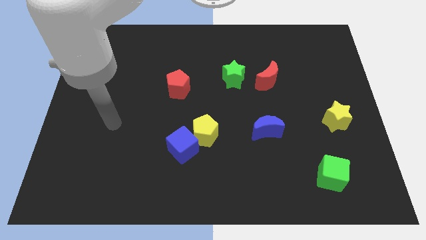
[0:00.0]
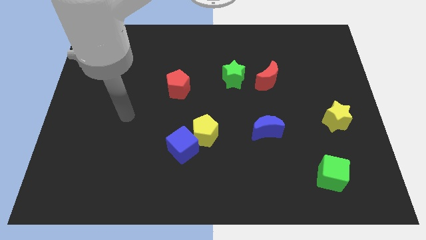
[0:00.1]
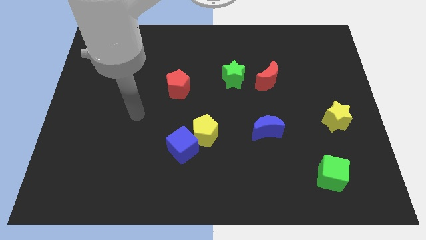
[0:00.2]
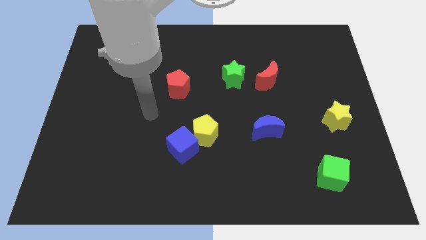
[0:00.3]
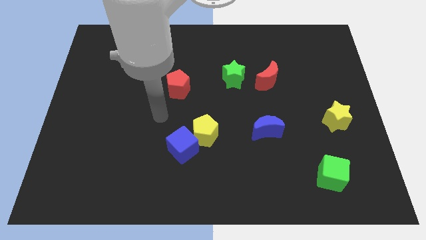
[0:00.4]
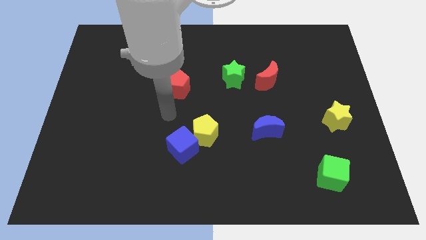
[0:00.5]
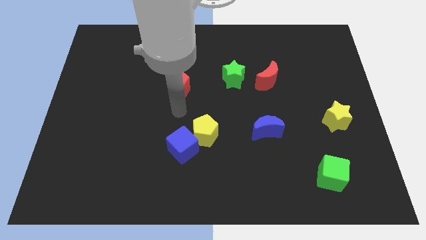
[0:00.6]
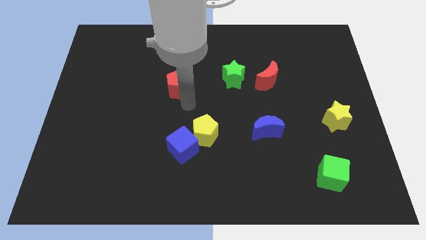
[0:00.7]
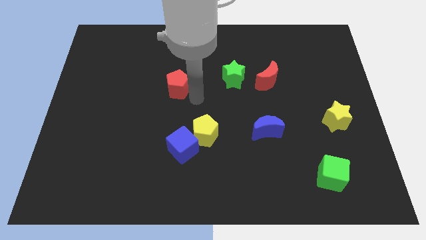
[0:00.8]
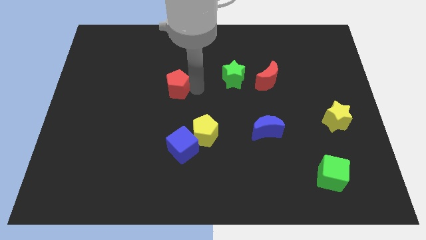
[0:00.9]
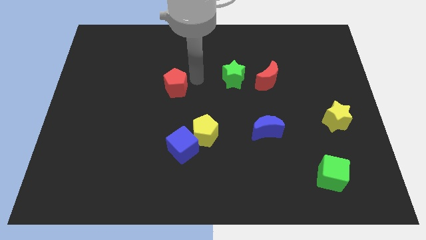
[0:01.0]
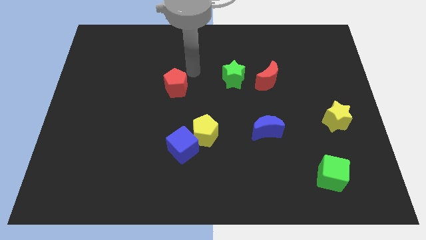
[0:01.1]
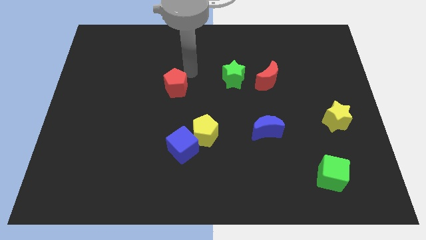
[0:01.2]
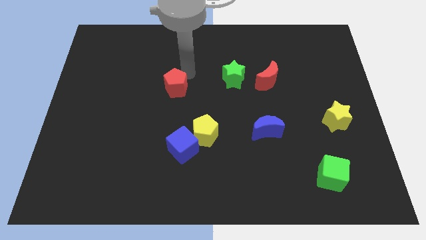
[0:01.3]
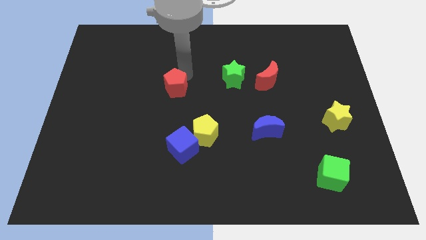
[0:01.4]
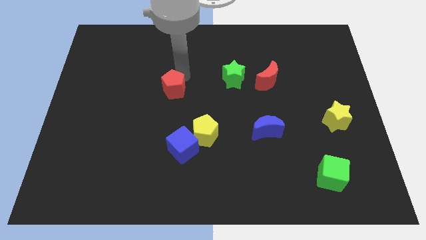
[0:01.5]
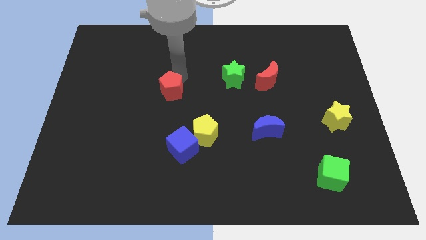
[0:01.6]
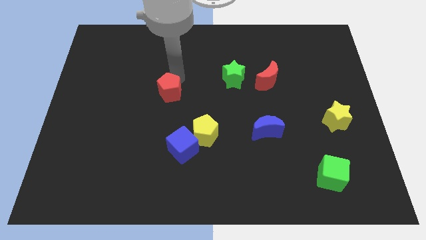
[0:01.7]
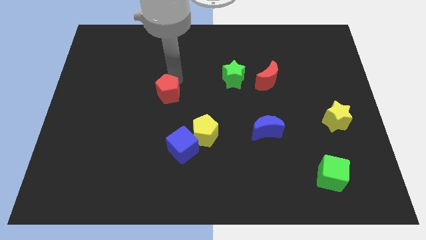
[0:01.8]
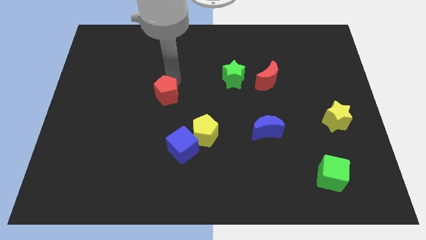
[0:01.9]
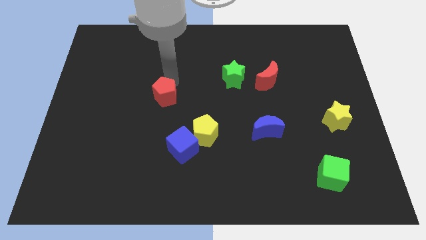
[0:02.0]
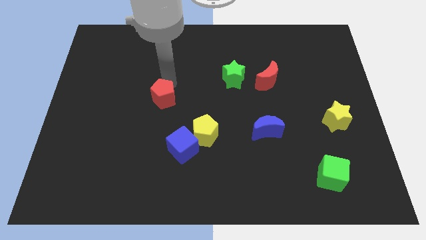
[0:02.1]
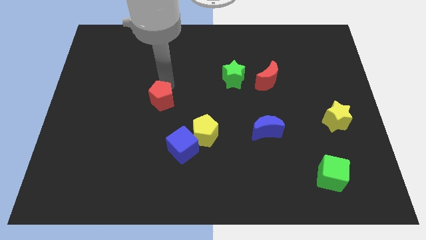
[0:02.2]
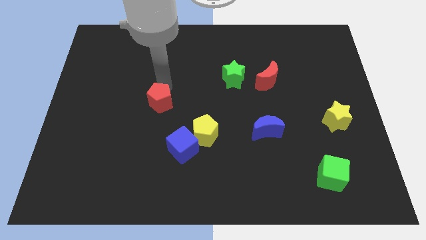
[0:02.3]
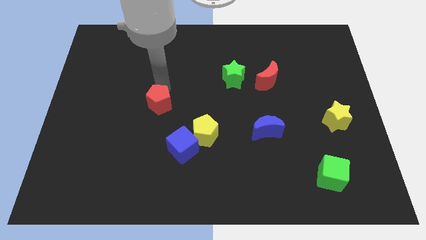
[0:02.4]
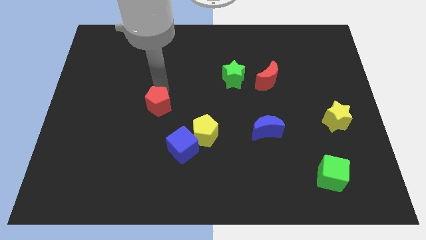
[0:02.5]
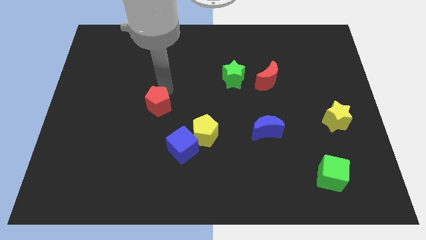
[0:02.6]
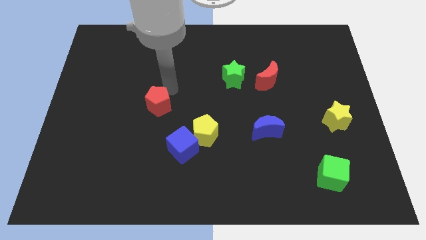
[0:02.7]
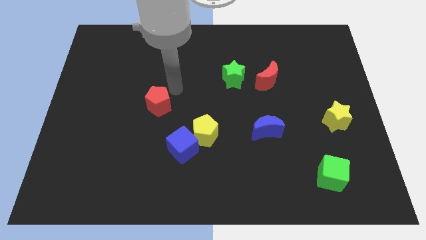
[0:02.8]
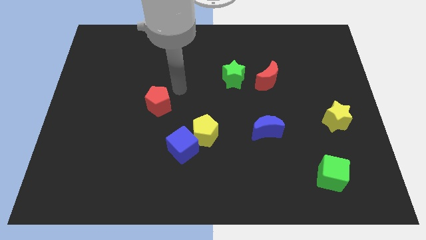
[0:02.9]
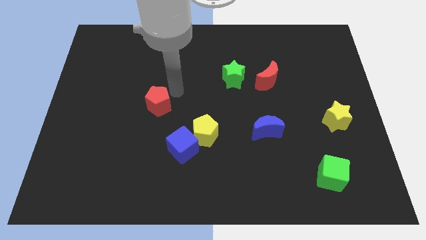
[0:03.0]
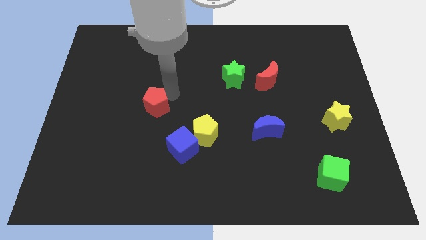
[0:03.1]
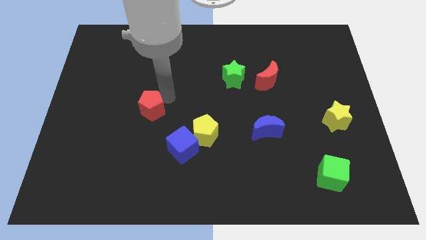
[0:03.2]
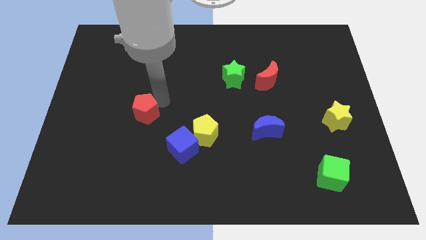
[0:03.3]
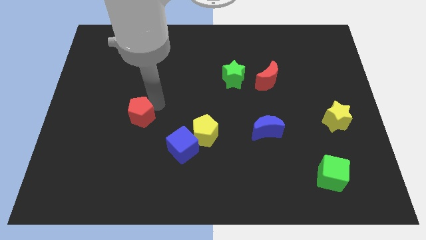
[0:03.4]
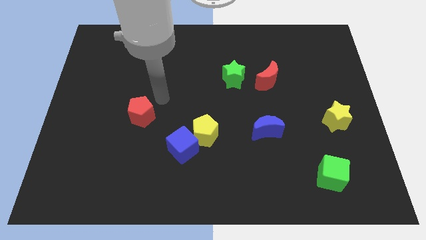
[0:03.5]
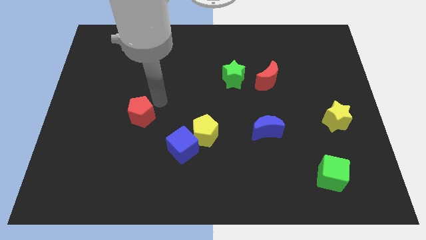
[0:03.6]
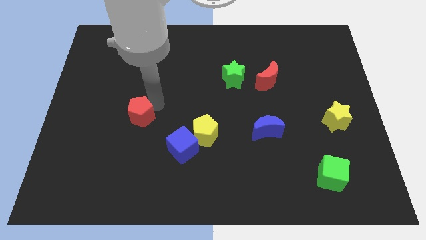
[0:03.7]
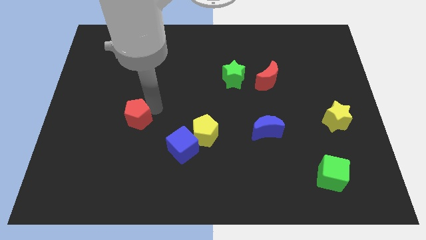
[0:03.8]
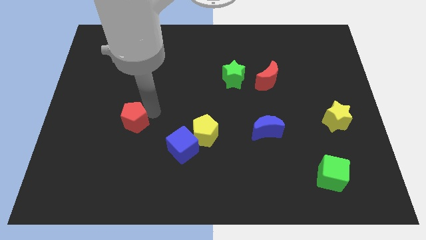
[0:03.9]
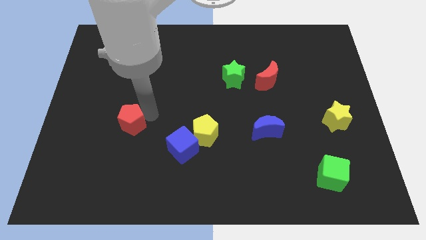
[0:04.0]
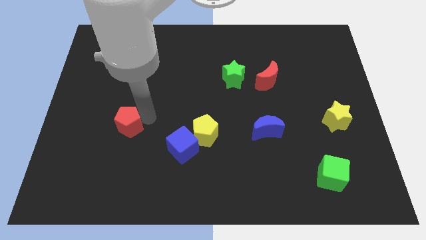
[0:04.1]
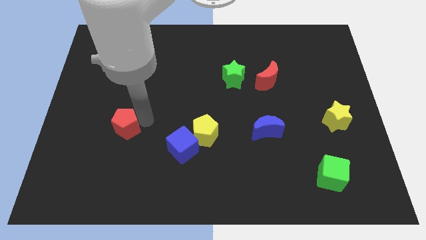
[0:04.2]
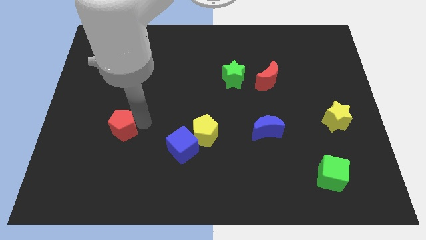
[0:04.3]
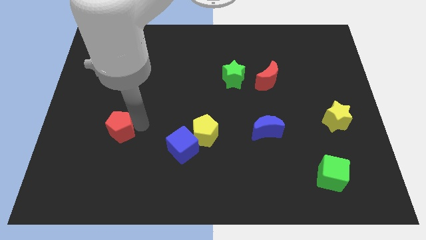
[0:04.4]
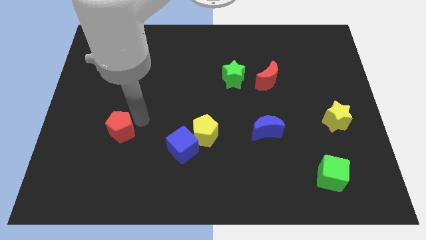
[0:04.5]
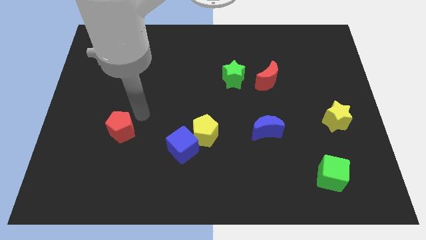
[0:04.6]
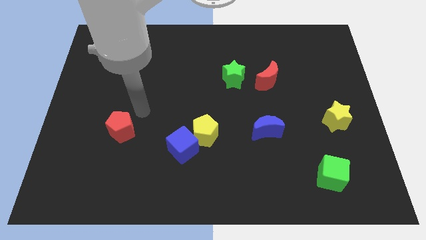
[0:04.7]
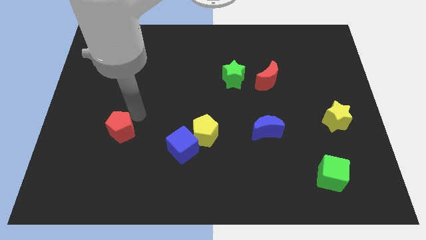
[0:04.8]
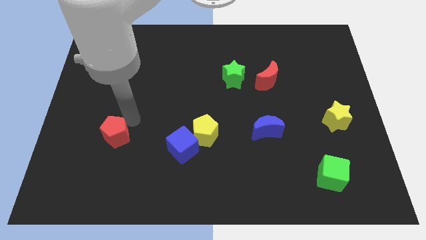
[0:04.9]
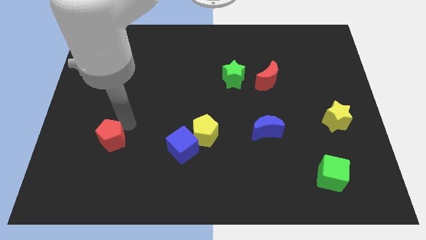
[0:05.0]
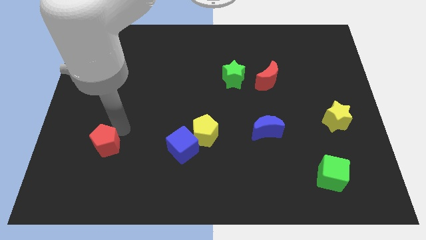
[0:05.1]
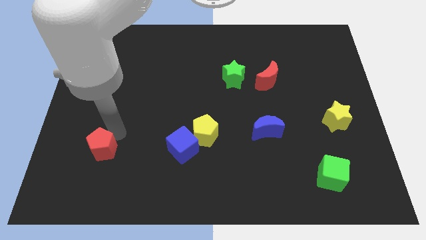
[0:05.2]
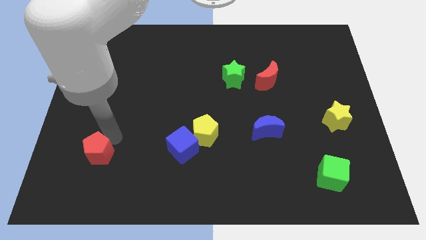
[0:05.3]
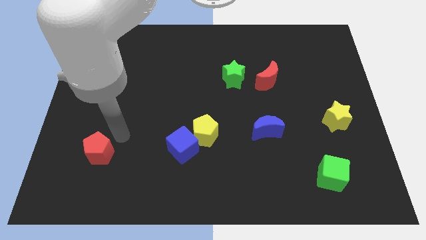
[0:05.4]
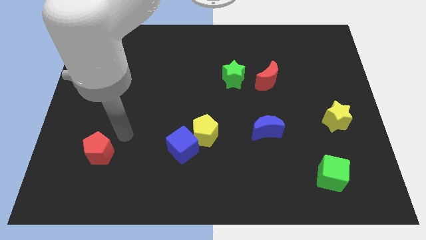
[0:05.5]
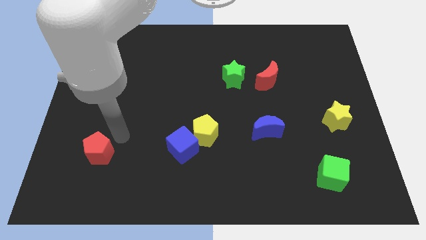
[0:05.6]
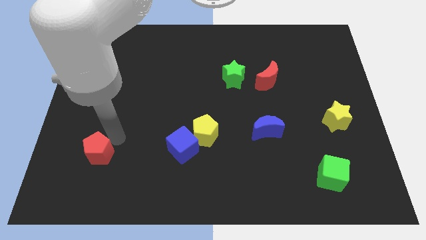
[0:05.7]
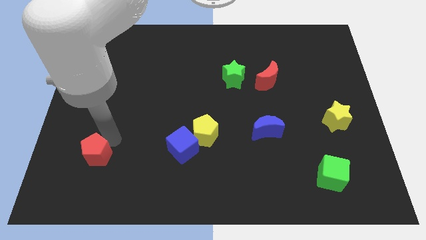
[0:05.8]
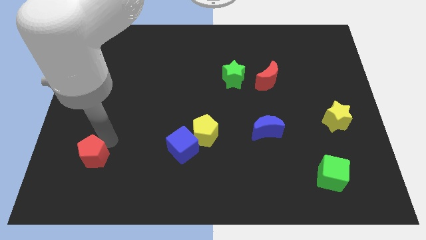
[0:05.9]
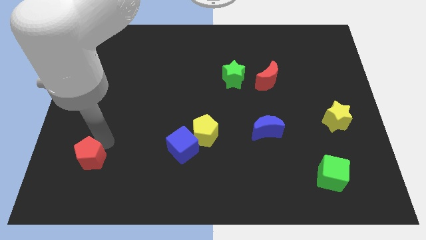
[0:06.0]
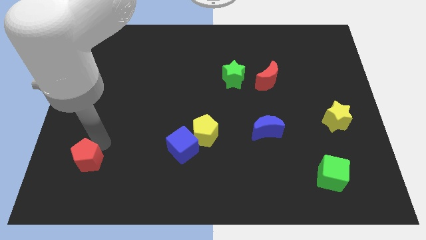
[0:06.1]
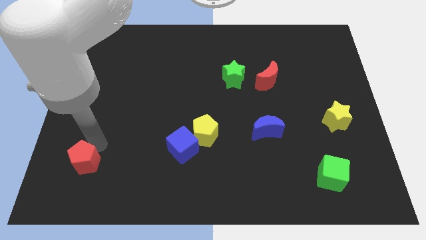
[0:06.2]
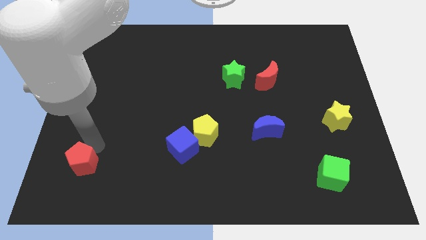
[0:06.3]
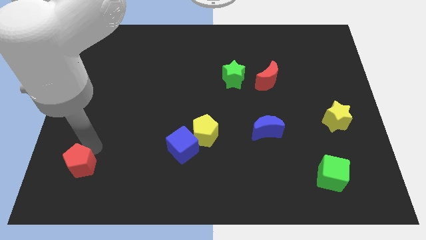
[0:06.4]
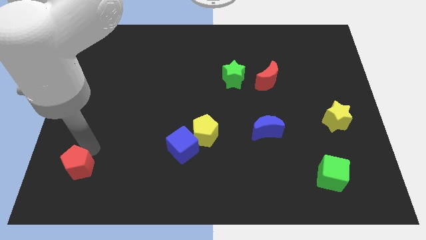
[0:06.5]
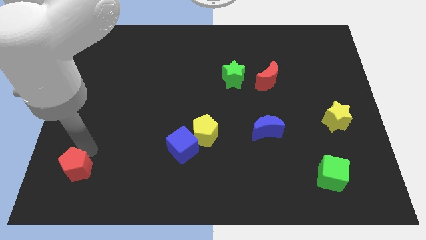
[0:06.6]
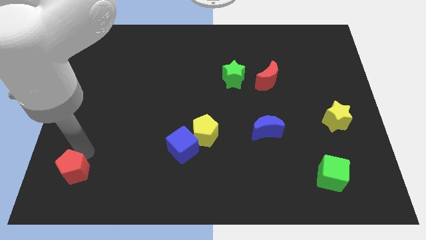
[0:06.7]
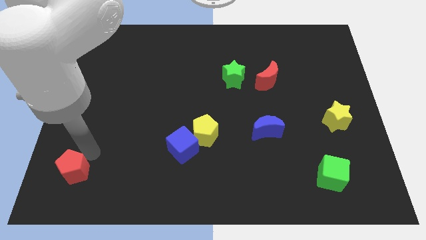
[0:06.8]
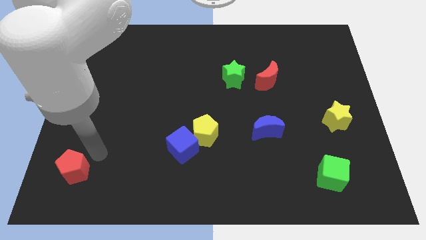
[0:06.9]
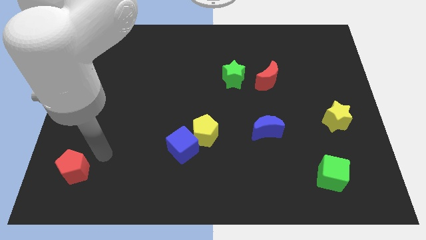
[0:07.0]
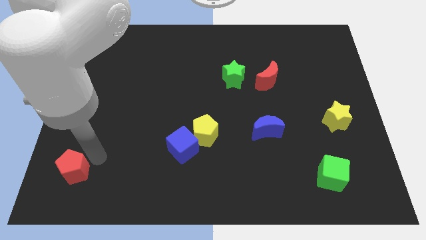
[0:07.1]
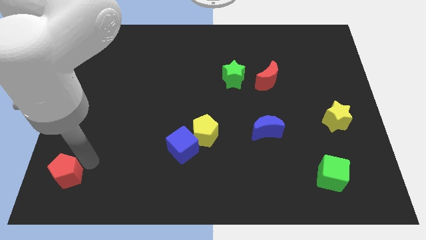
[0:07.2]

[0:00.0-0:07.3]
push the red pentagon to the bottom left of the board

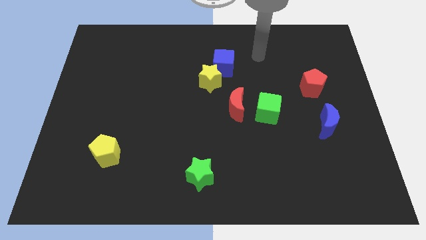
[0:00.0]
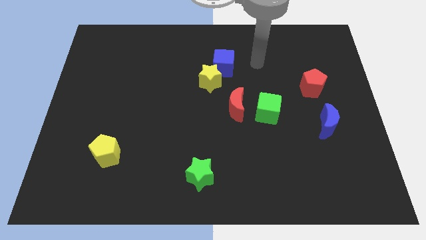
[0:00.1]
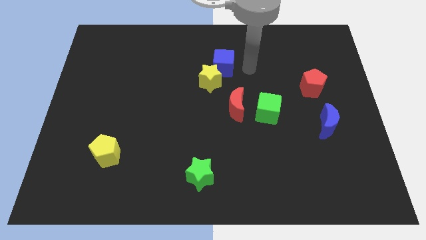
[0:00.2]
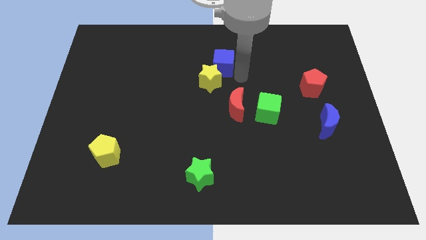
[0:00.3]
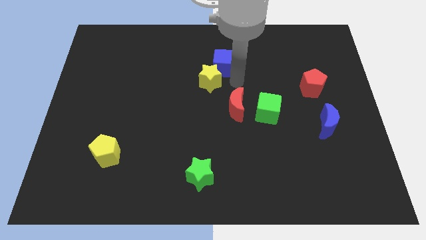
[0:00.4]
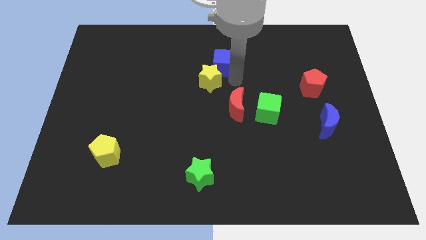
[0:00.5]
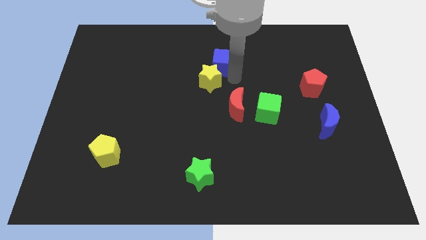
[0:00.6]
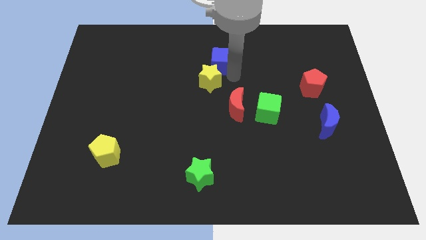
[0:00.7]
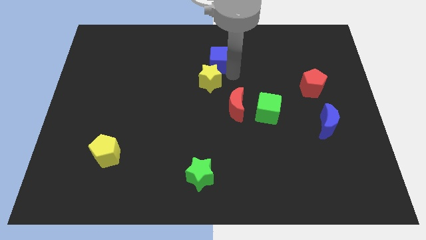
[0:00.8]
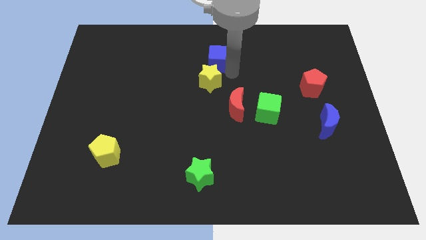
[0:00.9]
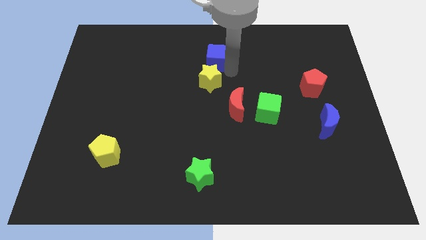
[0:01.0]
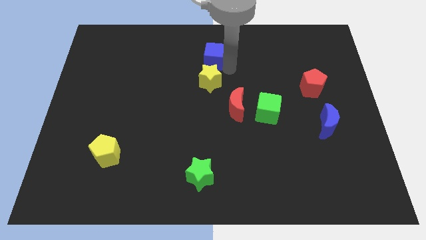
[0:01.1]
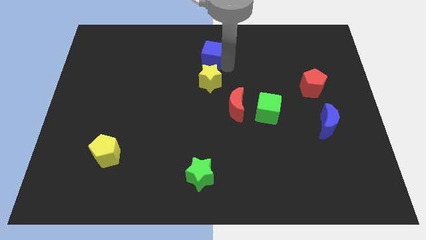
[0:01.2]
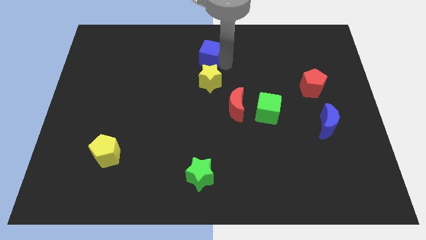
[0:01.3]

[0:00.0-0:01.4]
push the blue cube to the towards your base
